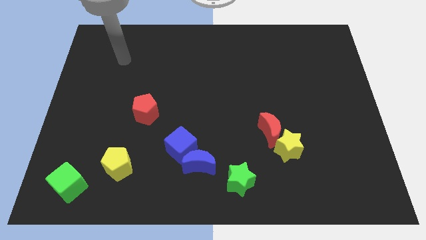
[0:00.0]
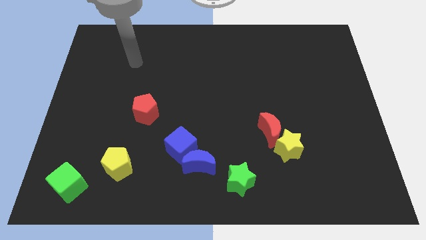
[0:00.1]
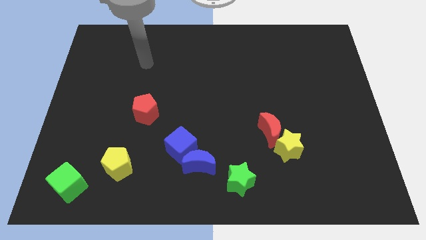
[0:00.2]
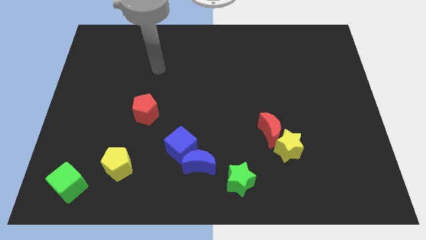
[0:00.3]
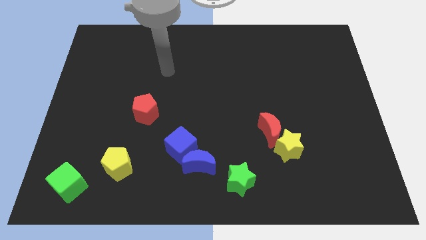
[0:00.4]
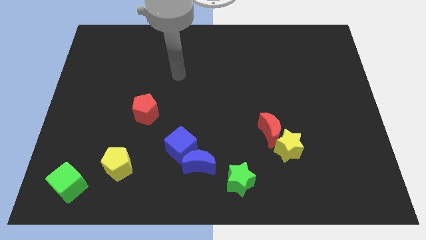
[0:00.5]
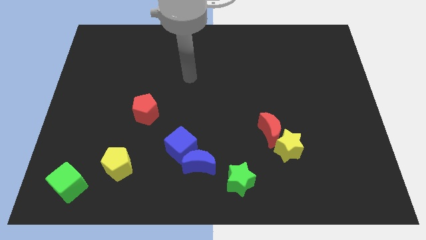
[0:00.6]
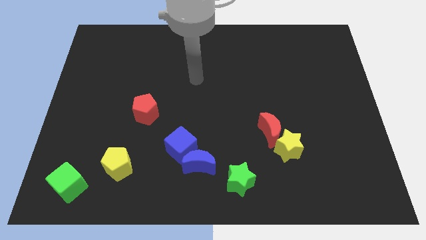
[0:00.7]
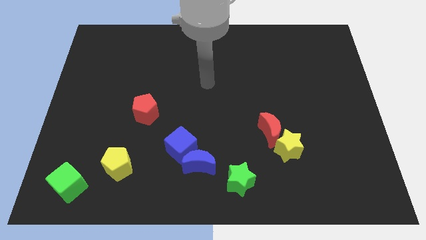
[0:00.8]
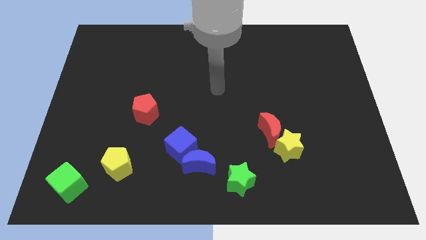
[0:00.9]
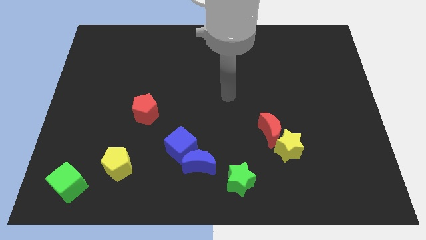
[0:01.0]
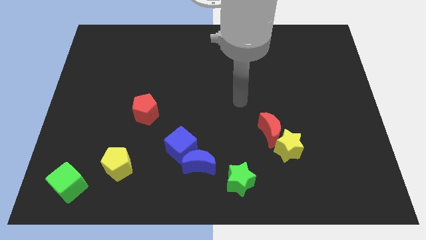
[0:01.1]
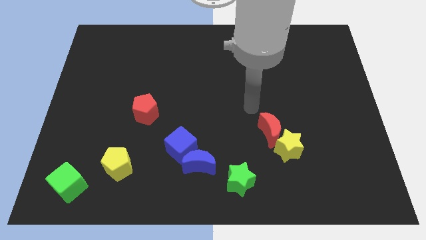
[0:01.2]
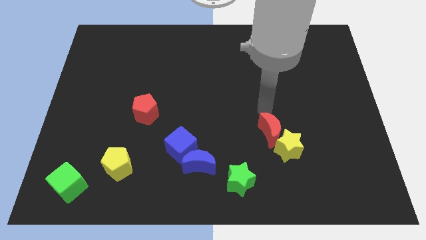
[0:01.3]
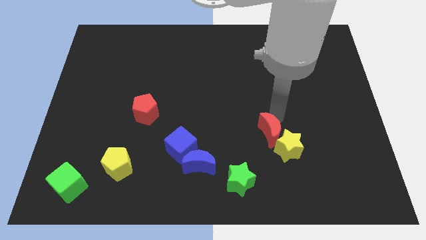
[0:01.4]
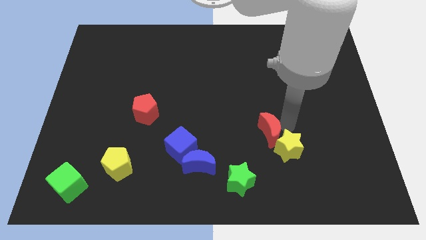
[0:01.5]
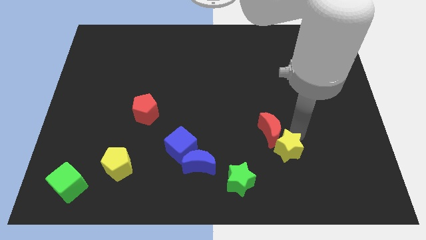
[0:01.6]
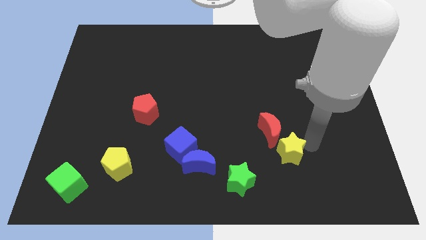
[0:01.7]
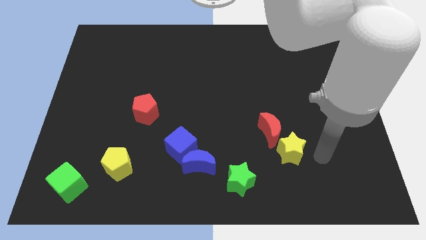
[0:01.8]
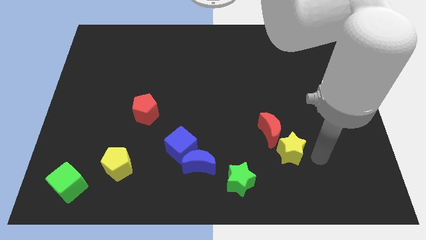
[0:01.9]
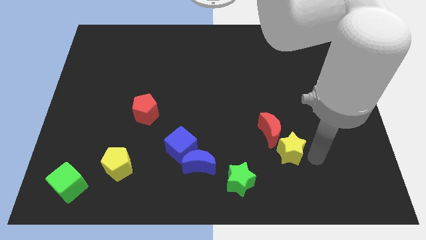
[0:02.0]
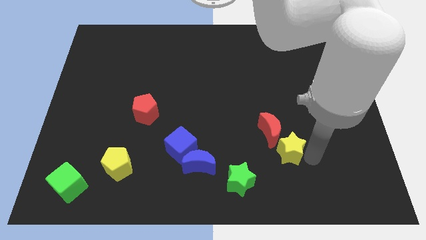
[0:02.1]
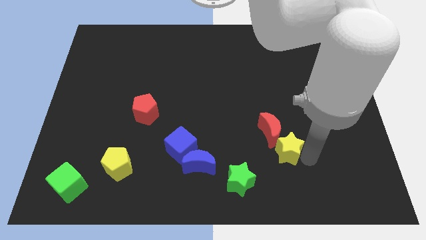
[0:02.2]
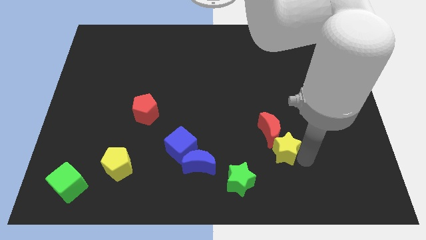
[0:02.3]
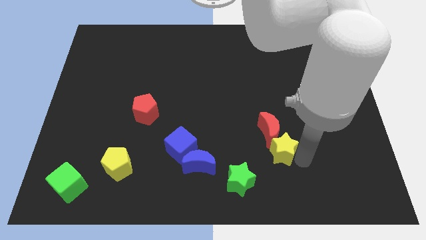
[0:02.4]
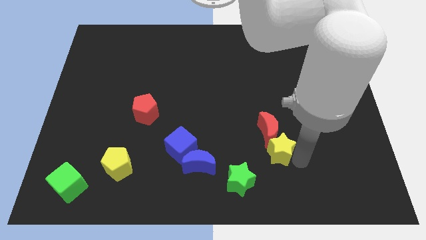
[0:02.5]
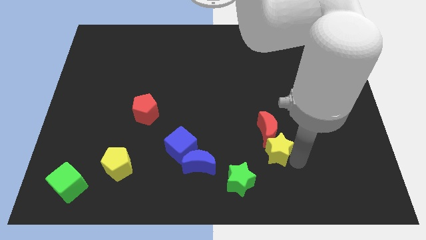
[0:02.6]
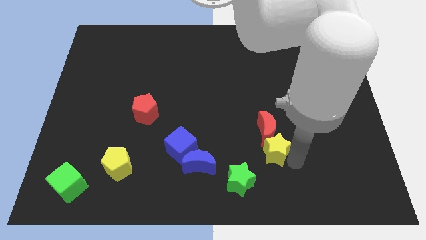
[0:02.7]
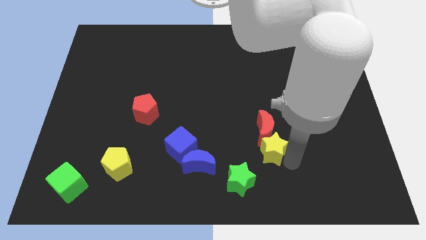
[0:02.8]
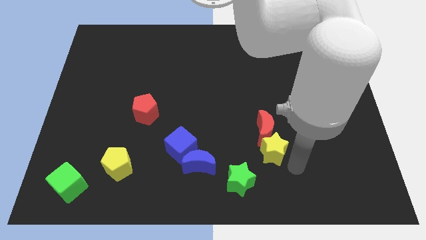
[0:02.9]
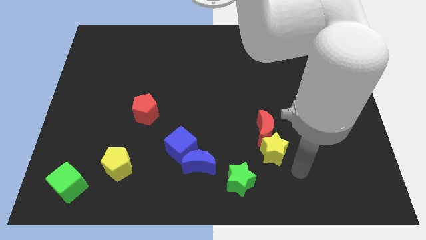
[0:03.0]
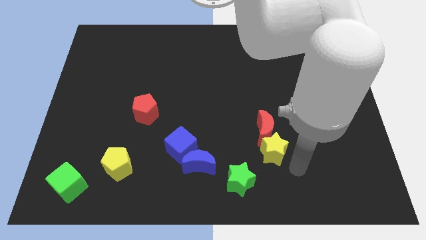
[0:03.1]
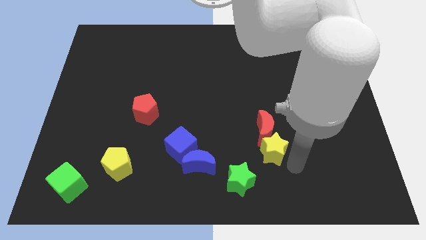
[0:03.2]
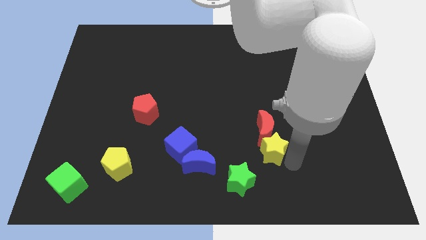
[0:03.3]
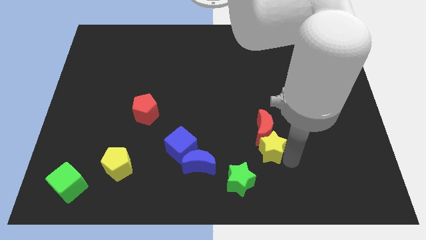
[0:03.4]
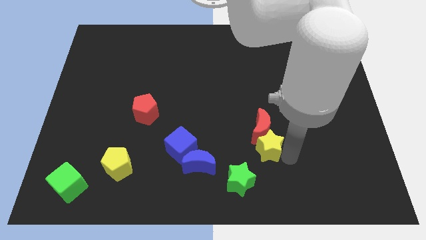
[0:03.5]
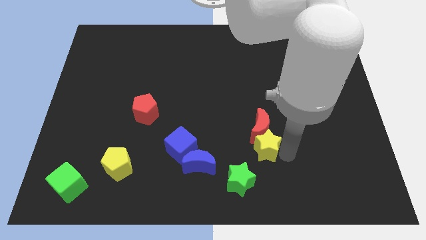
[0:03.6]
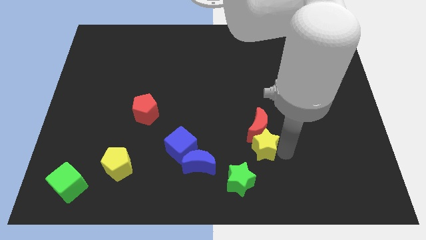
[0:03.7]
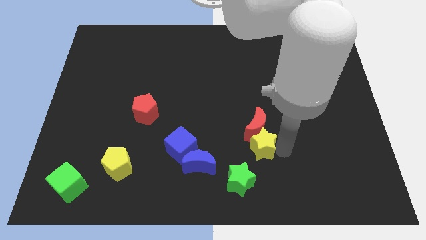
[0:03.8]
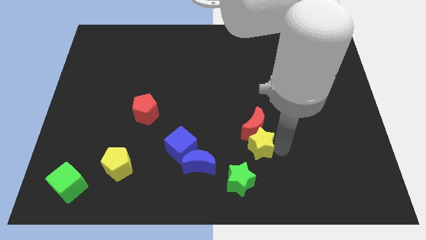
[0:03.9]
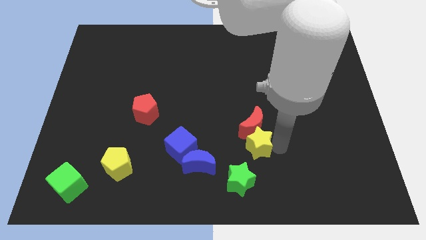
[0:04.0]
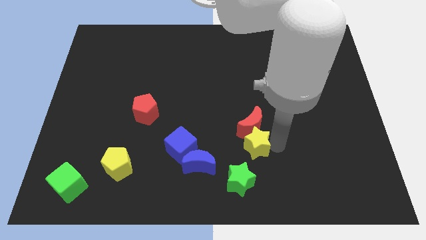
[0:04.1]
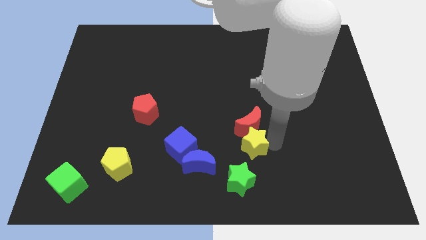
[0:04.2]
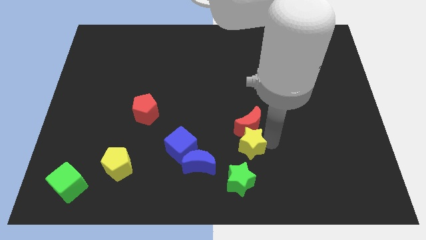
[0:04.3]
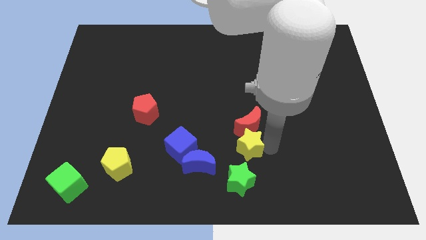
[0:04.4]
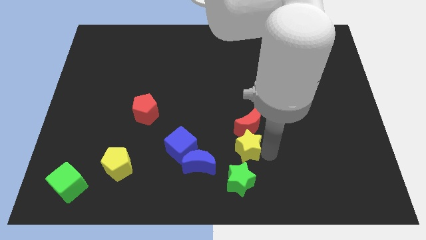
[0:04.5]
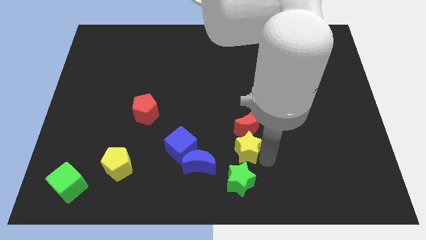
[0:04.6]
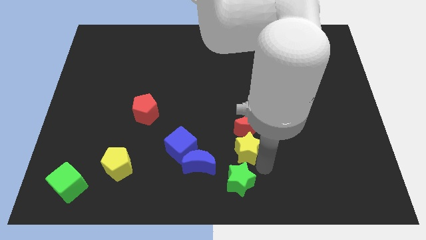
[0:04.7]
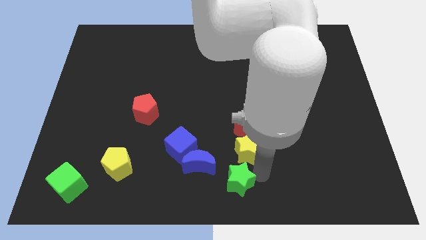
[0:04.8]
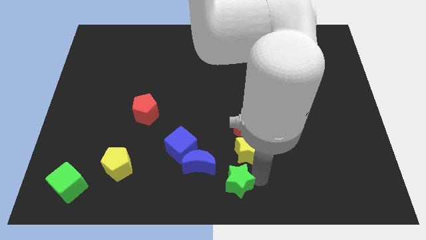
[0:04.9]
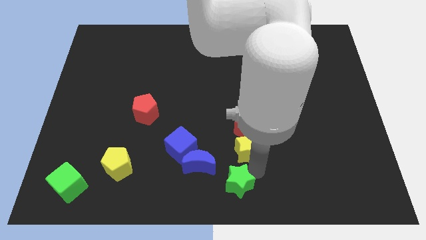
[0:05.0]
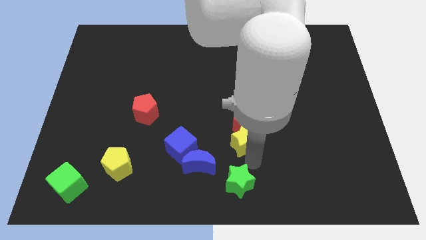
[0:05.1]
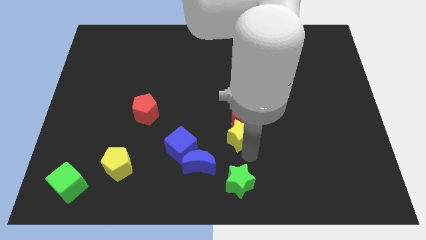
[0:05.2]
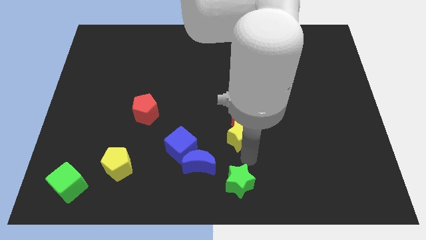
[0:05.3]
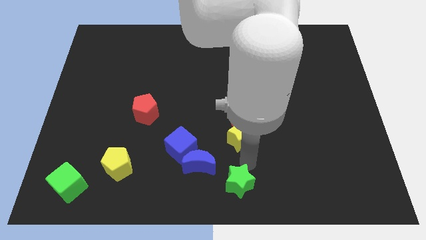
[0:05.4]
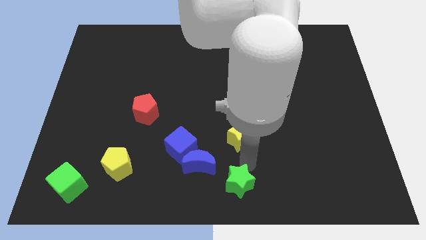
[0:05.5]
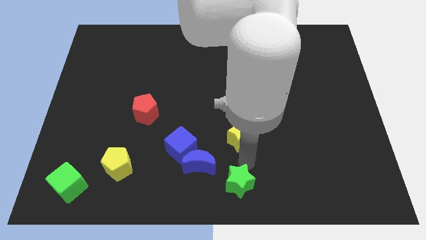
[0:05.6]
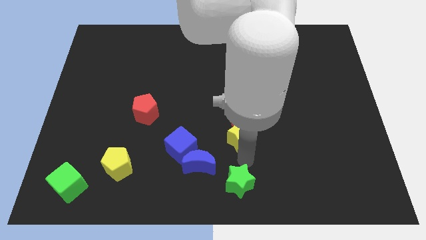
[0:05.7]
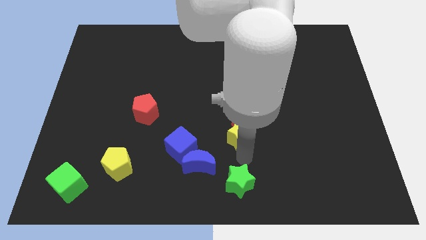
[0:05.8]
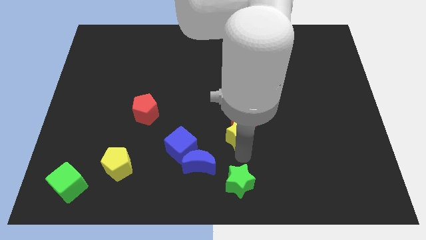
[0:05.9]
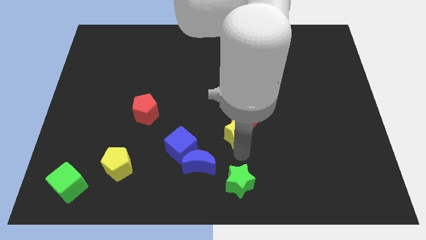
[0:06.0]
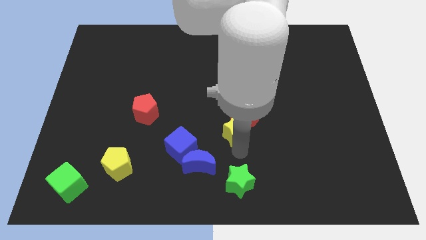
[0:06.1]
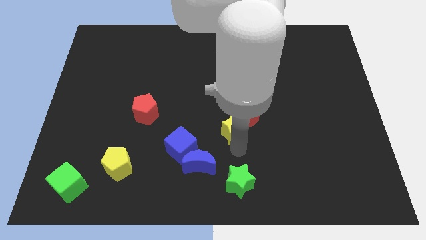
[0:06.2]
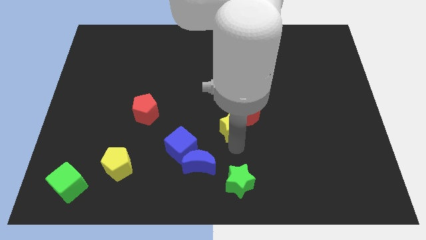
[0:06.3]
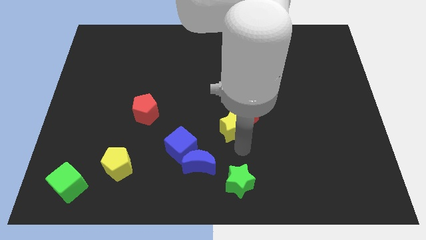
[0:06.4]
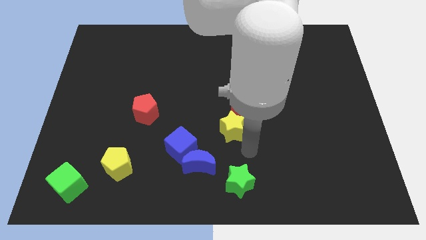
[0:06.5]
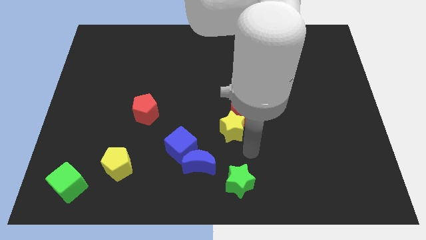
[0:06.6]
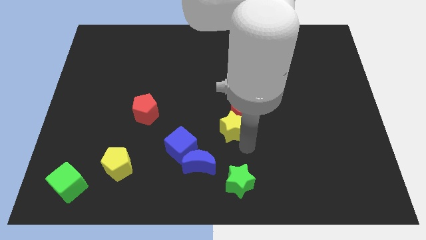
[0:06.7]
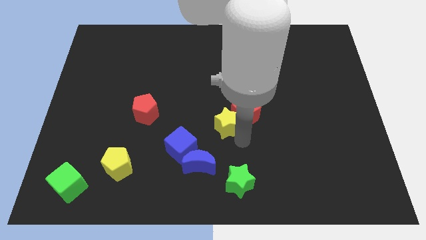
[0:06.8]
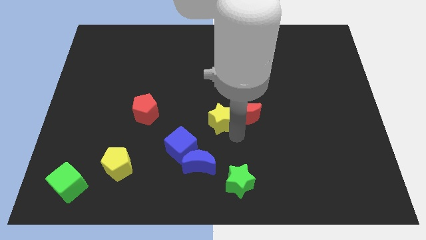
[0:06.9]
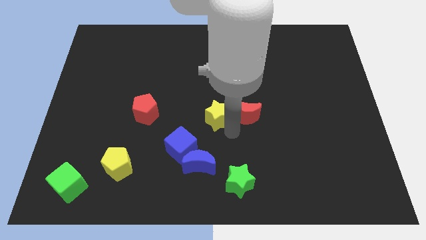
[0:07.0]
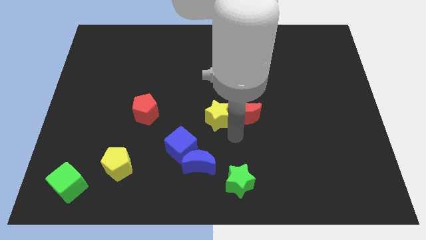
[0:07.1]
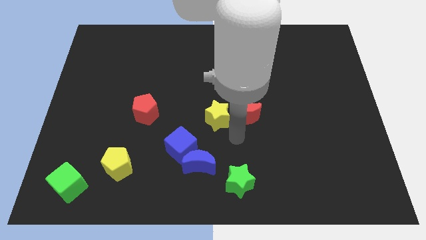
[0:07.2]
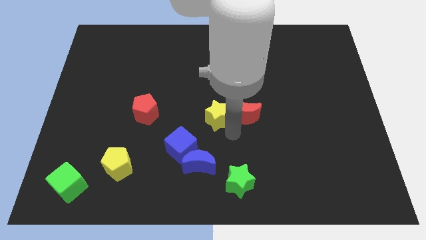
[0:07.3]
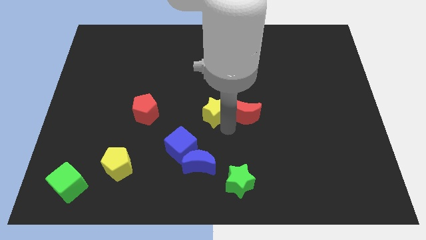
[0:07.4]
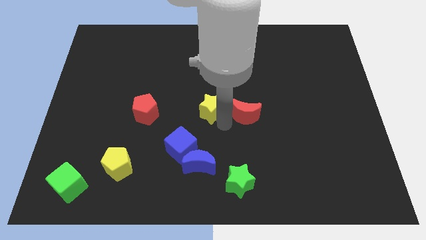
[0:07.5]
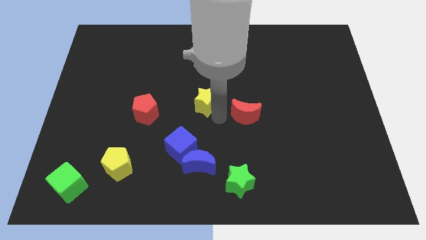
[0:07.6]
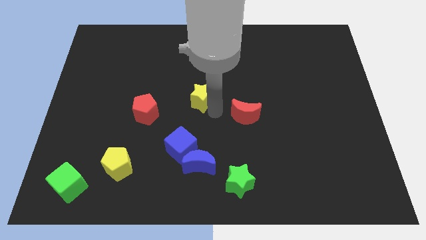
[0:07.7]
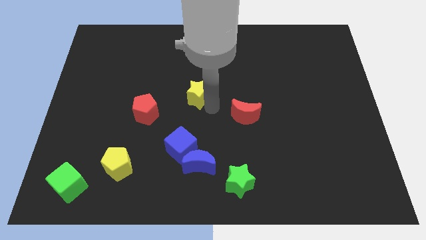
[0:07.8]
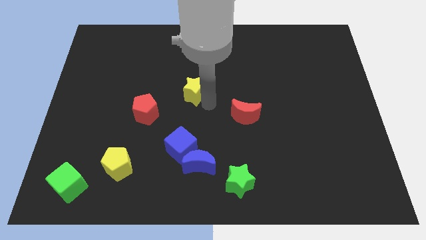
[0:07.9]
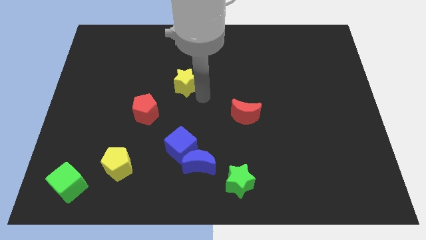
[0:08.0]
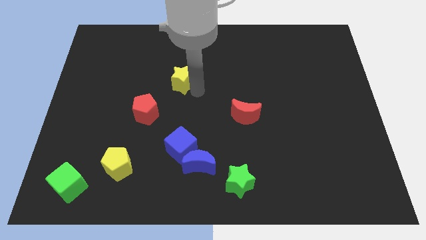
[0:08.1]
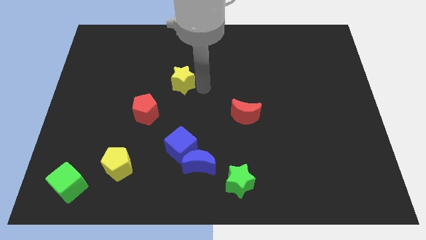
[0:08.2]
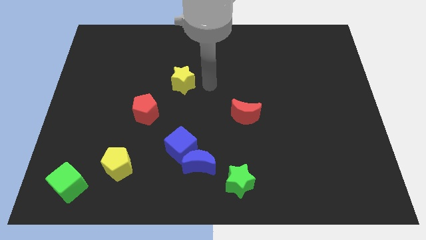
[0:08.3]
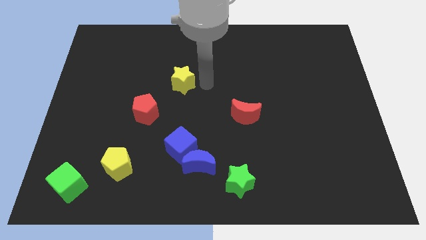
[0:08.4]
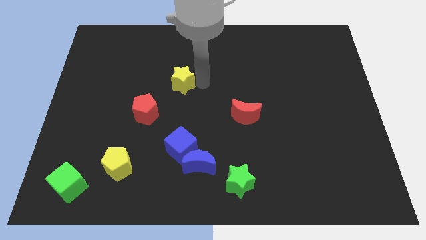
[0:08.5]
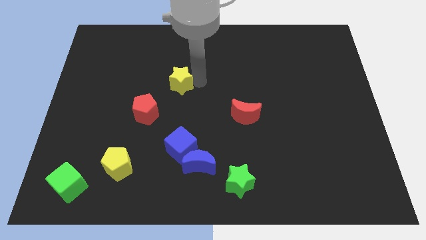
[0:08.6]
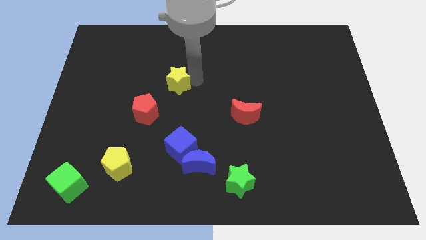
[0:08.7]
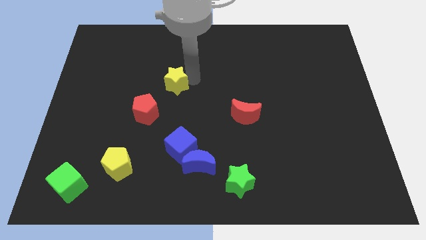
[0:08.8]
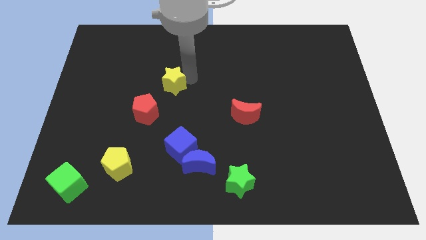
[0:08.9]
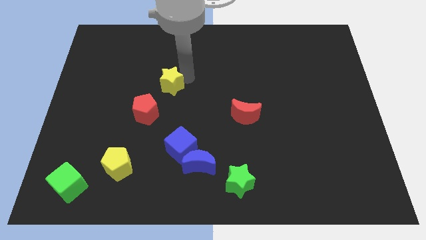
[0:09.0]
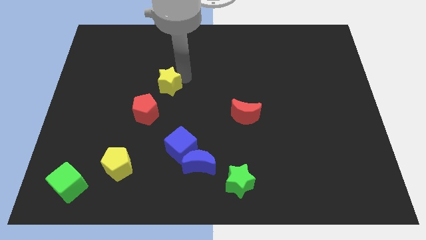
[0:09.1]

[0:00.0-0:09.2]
put the yellow star to the top of the red pentagon
